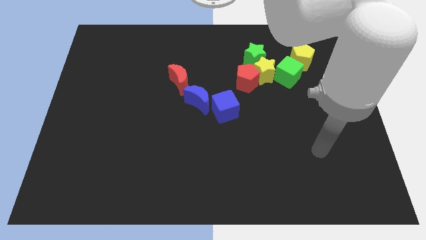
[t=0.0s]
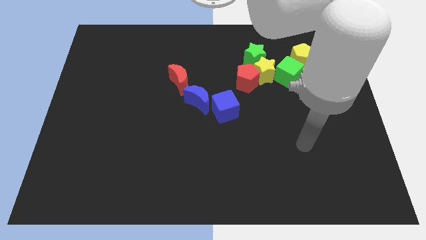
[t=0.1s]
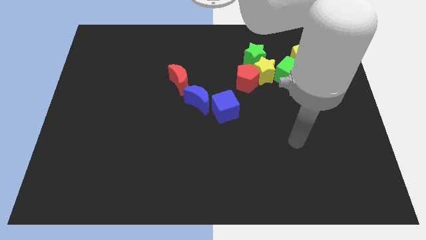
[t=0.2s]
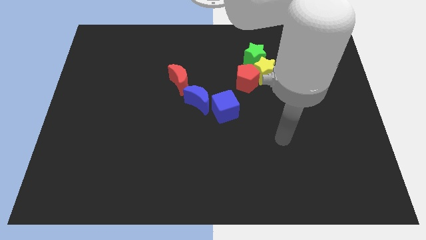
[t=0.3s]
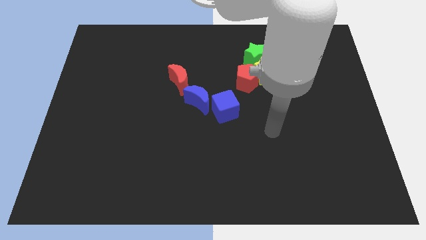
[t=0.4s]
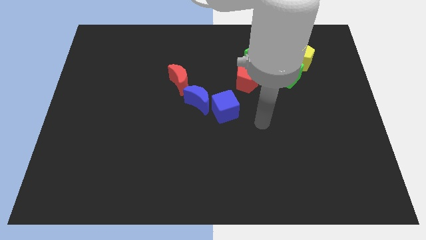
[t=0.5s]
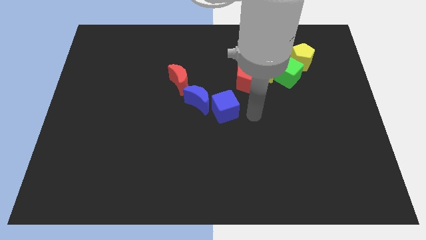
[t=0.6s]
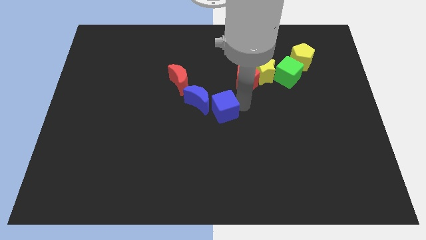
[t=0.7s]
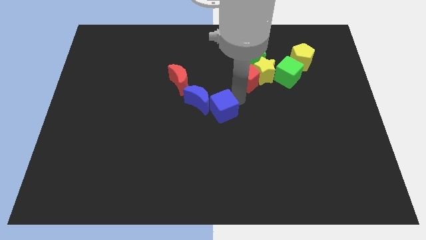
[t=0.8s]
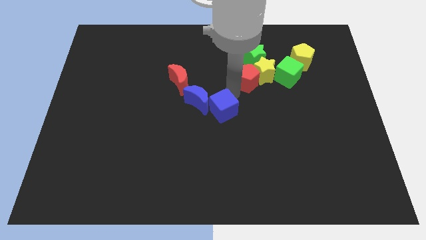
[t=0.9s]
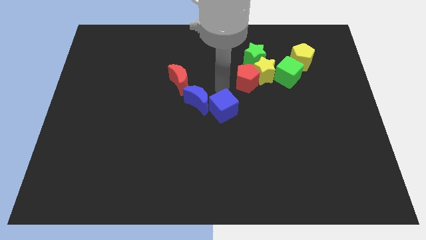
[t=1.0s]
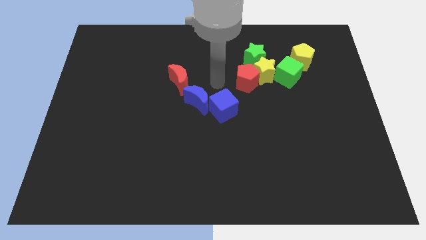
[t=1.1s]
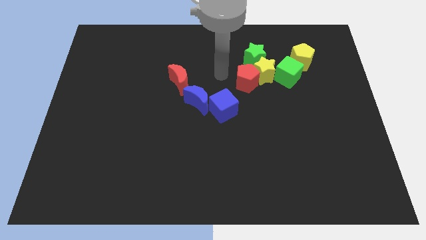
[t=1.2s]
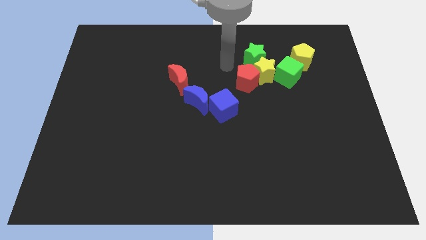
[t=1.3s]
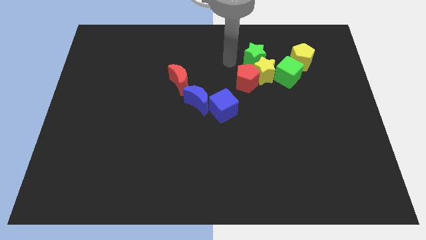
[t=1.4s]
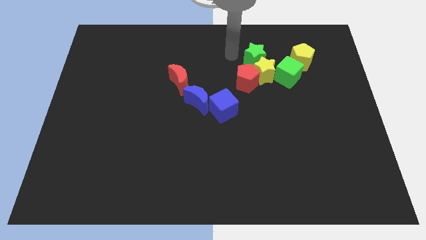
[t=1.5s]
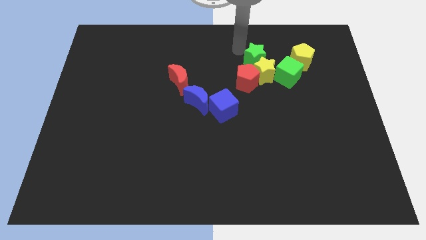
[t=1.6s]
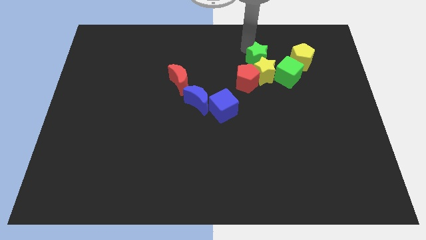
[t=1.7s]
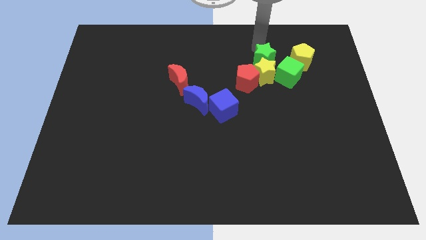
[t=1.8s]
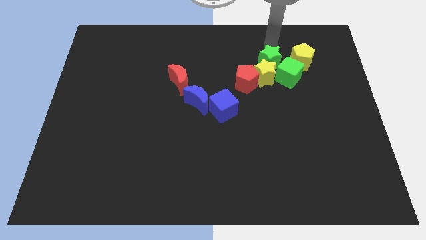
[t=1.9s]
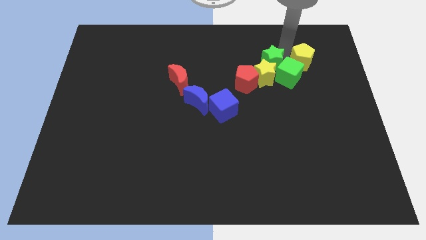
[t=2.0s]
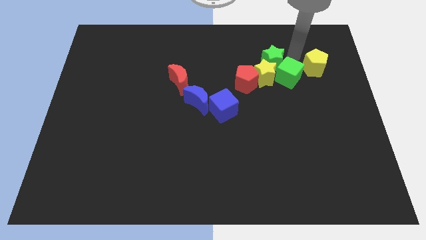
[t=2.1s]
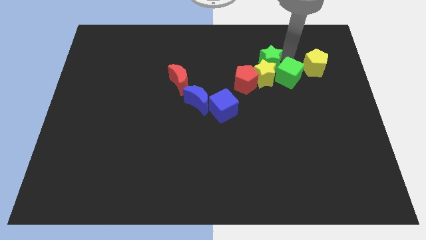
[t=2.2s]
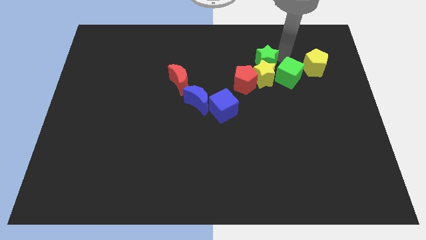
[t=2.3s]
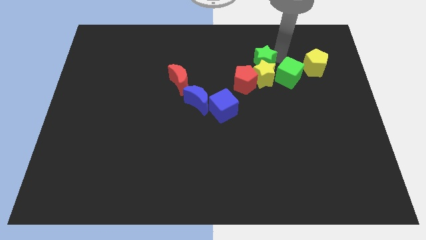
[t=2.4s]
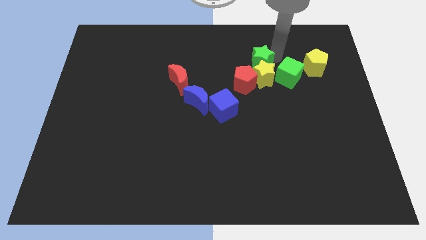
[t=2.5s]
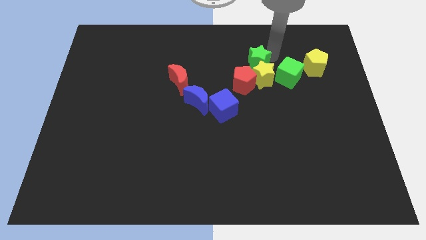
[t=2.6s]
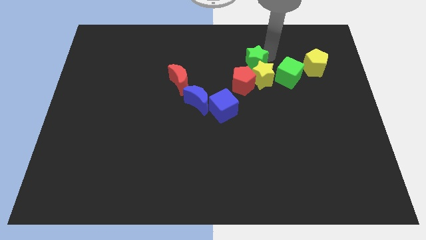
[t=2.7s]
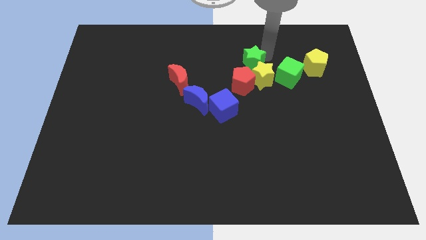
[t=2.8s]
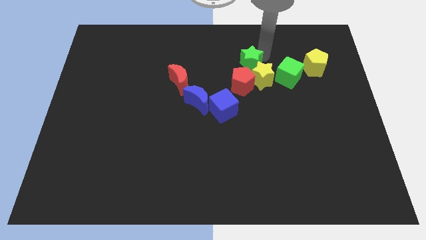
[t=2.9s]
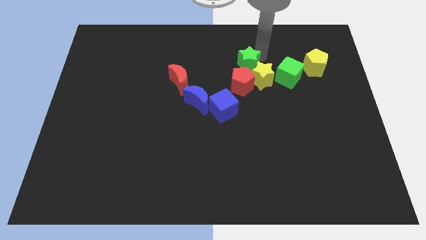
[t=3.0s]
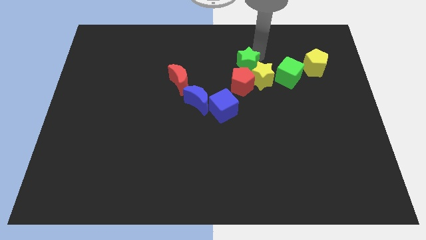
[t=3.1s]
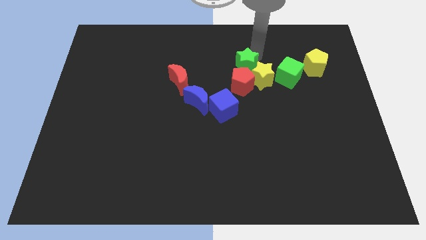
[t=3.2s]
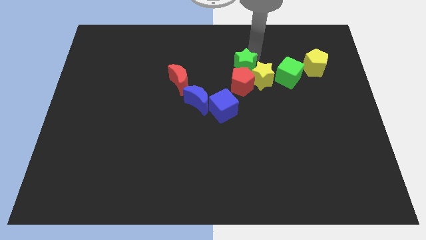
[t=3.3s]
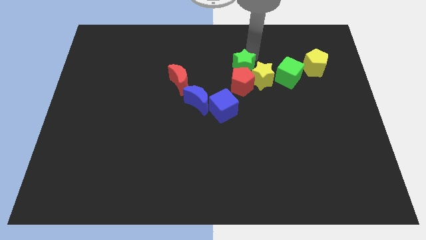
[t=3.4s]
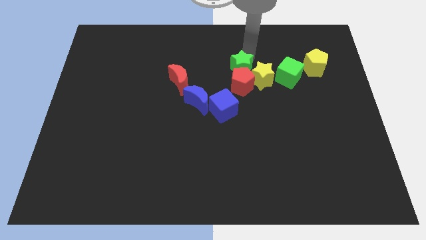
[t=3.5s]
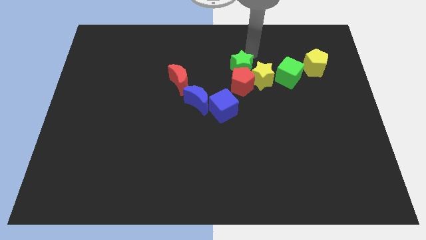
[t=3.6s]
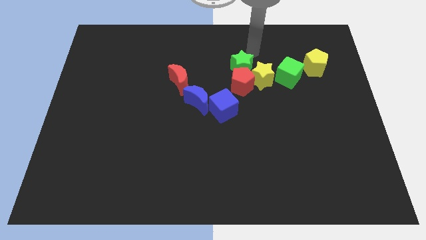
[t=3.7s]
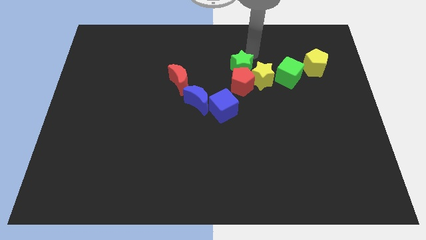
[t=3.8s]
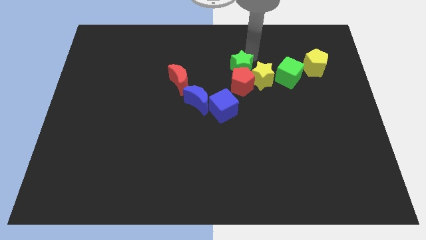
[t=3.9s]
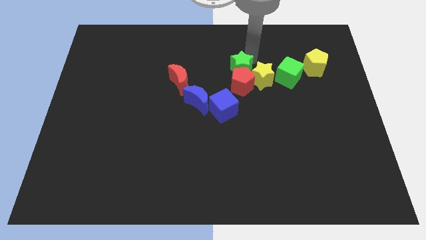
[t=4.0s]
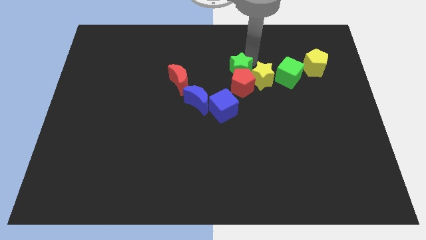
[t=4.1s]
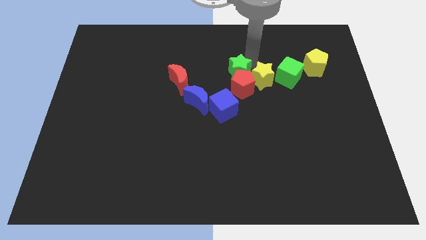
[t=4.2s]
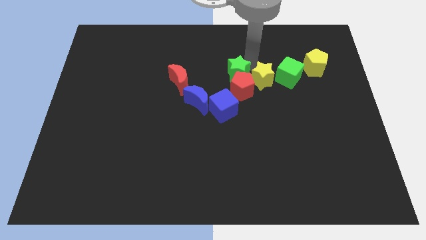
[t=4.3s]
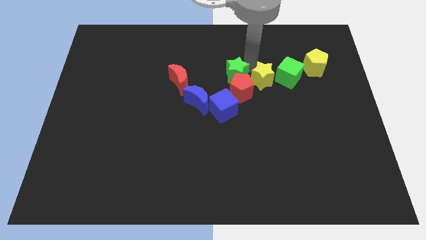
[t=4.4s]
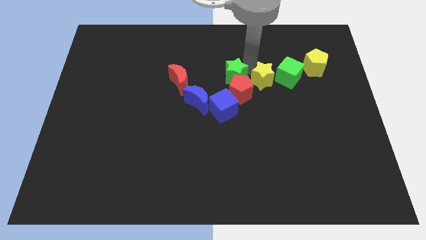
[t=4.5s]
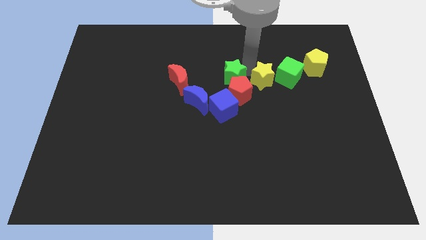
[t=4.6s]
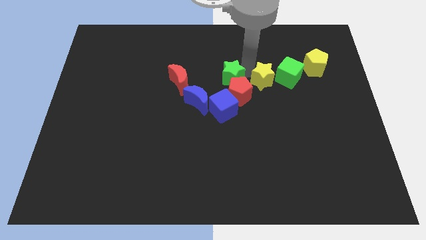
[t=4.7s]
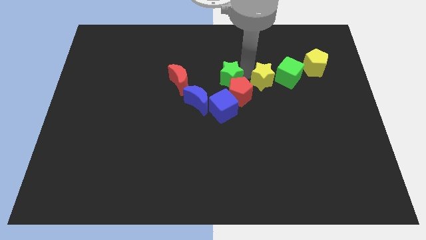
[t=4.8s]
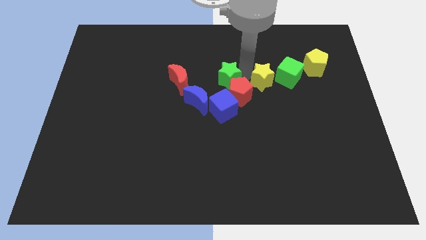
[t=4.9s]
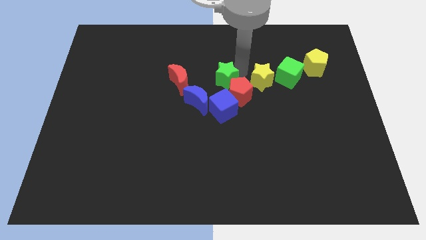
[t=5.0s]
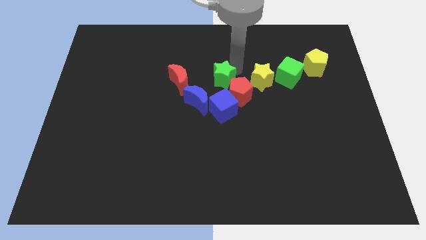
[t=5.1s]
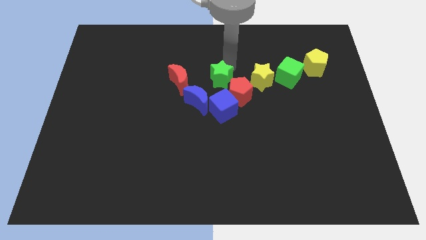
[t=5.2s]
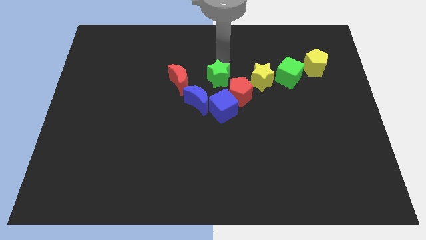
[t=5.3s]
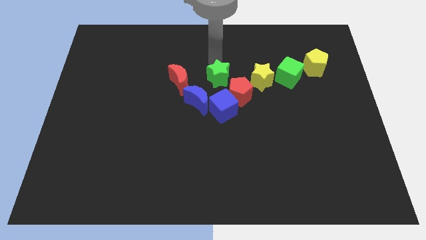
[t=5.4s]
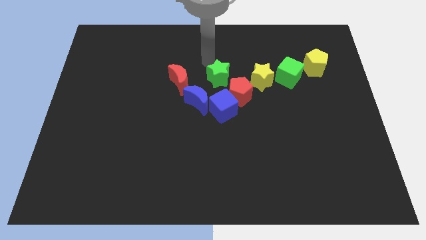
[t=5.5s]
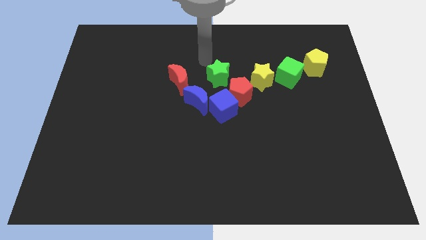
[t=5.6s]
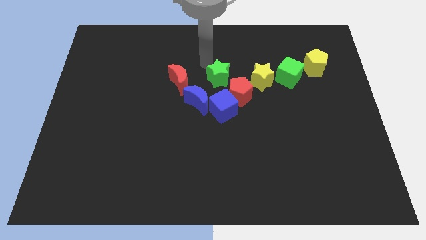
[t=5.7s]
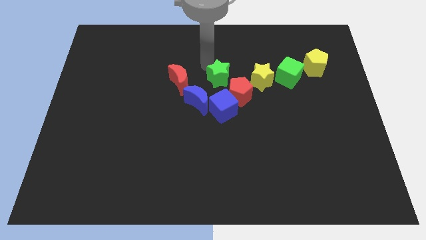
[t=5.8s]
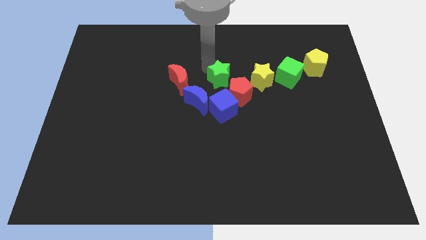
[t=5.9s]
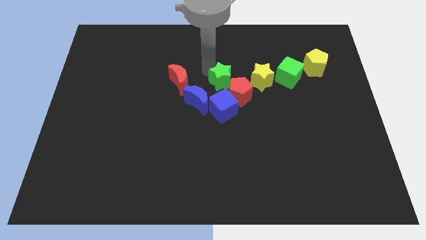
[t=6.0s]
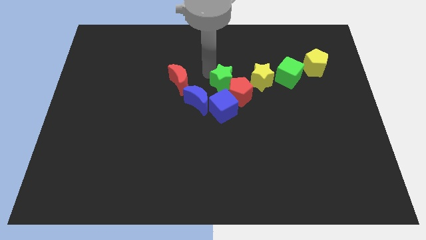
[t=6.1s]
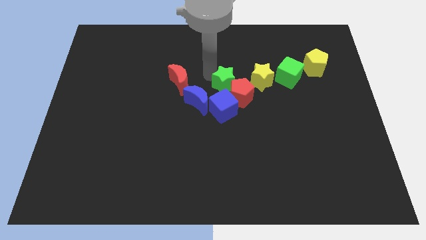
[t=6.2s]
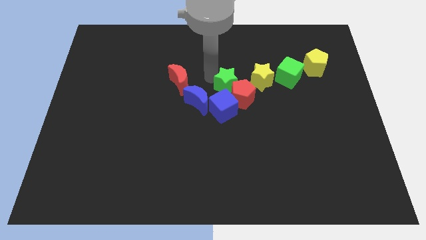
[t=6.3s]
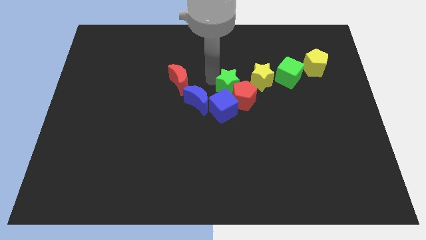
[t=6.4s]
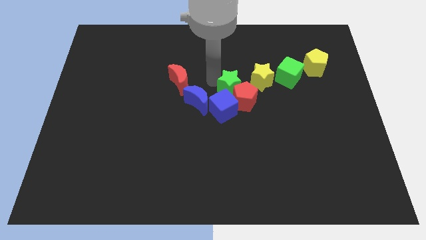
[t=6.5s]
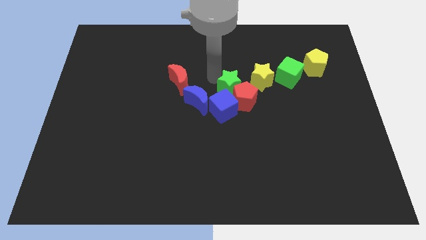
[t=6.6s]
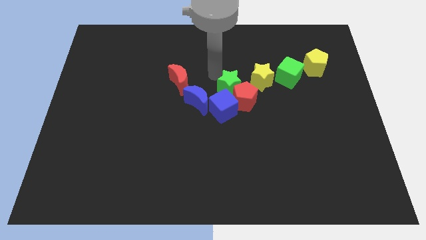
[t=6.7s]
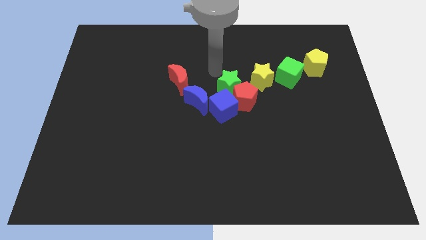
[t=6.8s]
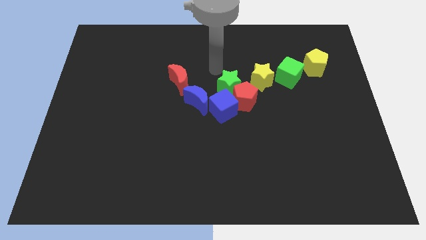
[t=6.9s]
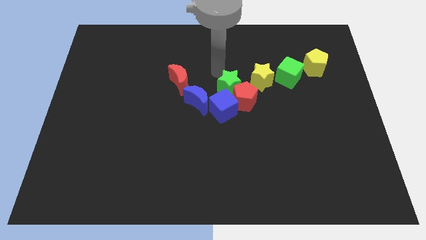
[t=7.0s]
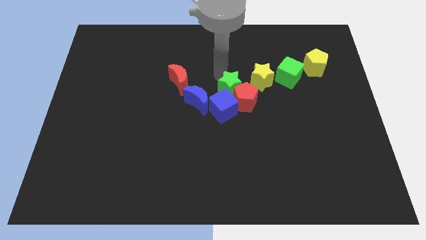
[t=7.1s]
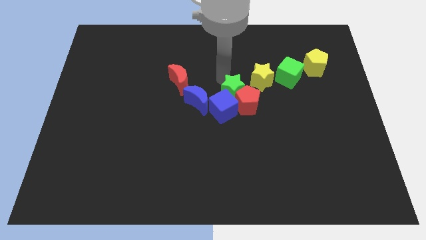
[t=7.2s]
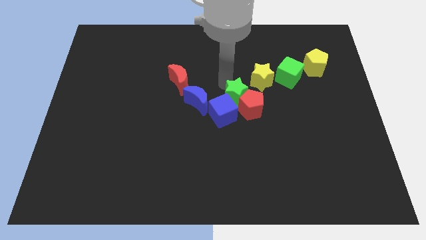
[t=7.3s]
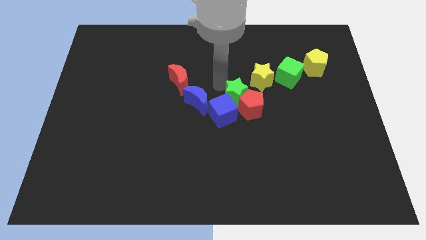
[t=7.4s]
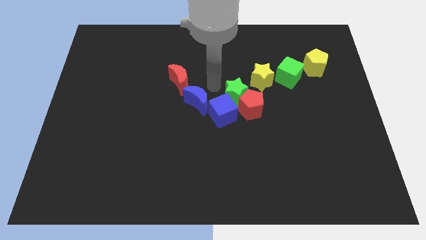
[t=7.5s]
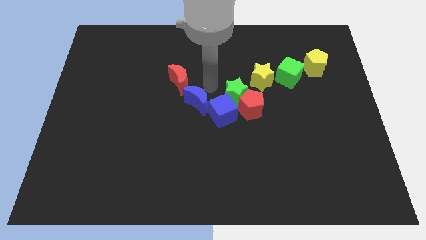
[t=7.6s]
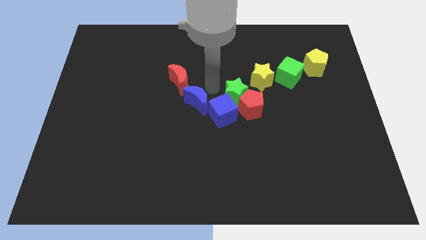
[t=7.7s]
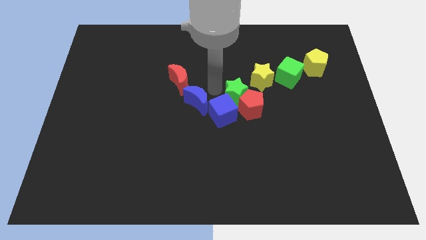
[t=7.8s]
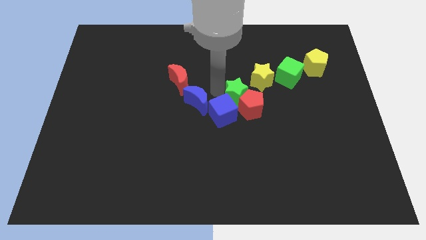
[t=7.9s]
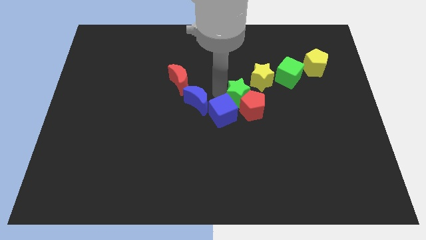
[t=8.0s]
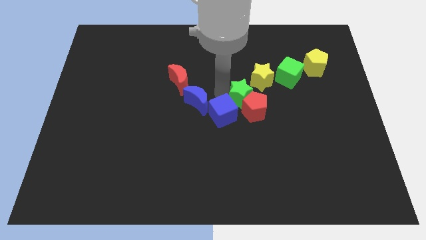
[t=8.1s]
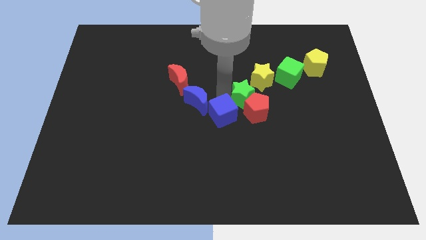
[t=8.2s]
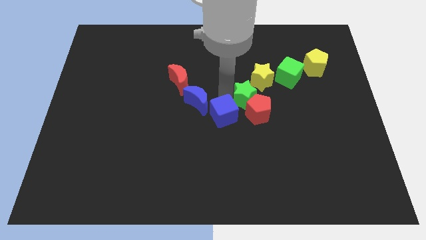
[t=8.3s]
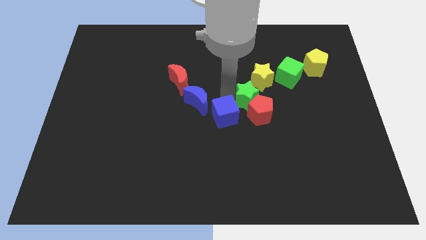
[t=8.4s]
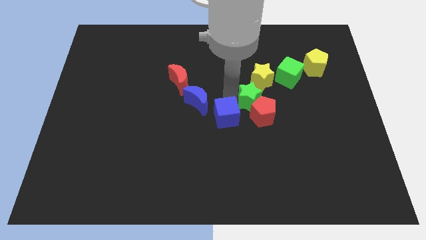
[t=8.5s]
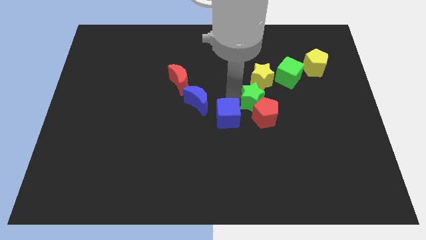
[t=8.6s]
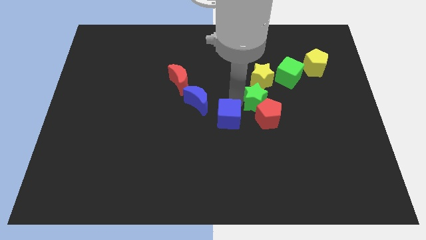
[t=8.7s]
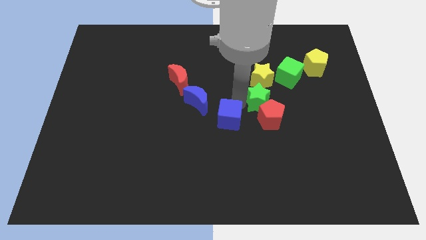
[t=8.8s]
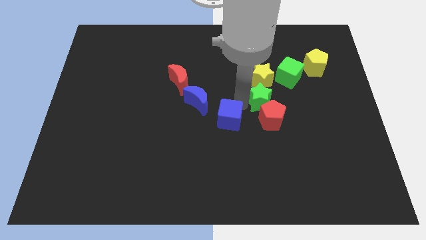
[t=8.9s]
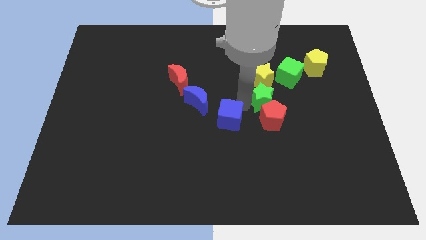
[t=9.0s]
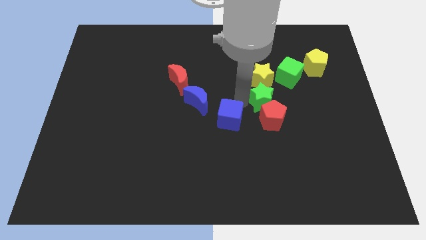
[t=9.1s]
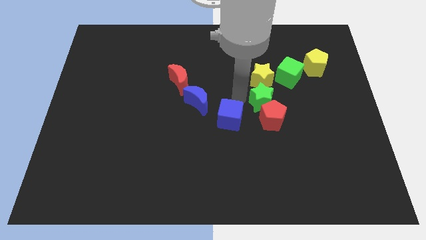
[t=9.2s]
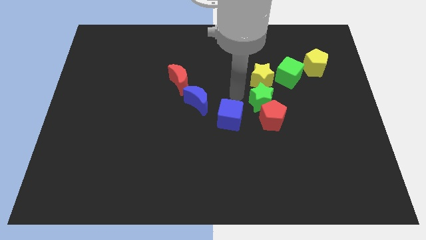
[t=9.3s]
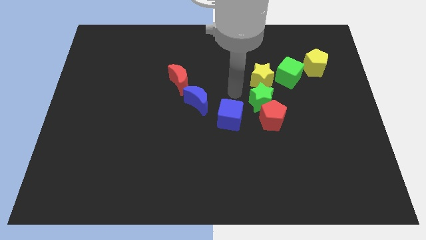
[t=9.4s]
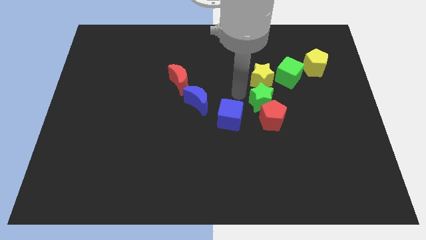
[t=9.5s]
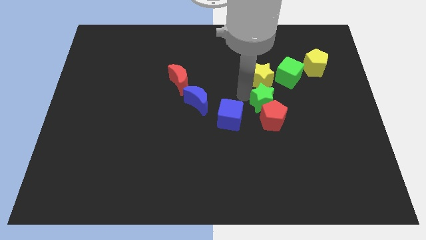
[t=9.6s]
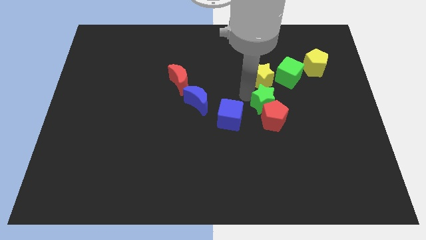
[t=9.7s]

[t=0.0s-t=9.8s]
push the green star a little bit downwards and to the right diagonally
